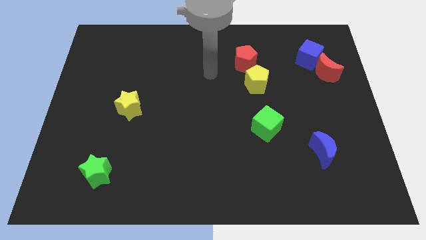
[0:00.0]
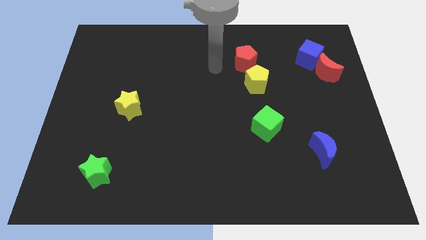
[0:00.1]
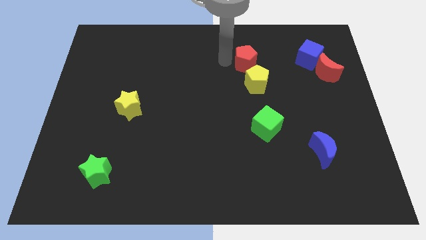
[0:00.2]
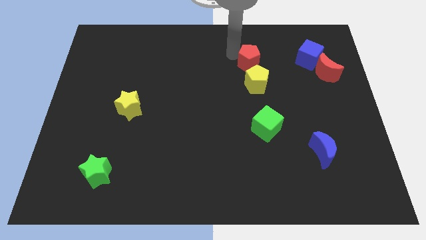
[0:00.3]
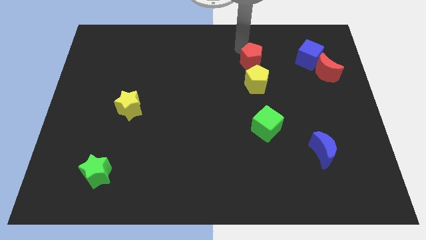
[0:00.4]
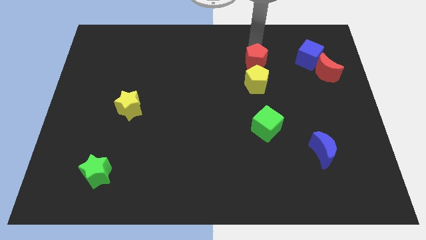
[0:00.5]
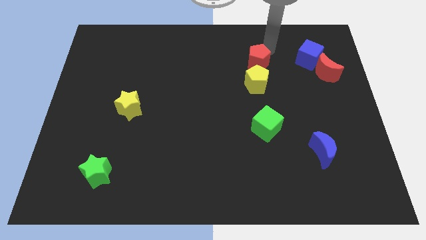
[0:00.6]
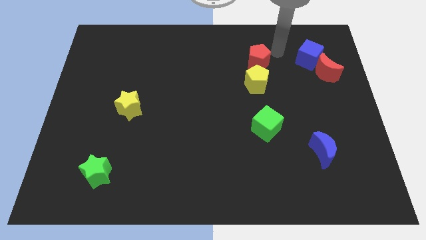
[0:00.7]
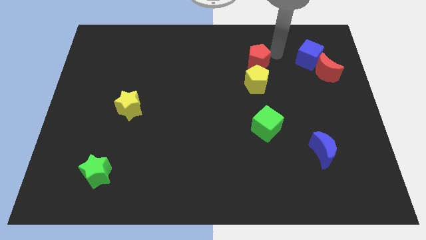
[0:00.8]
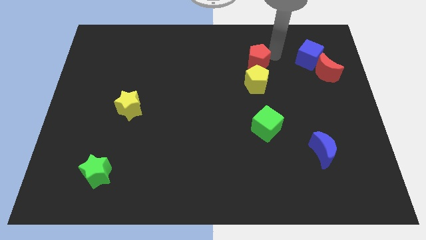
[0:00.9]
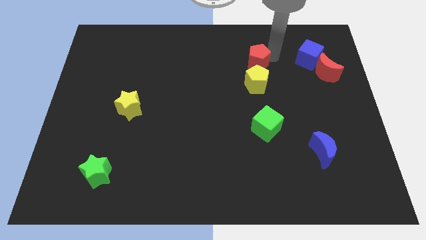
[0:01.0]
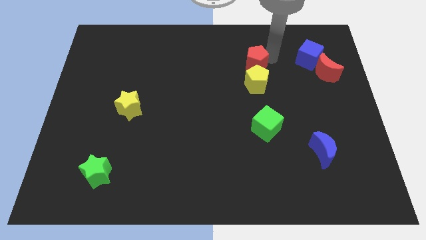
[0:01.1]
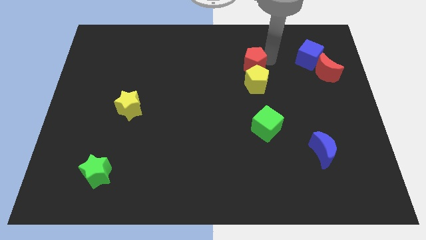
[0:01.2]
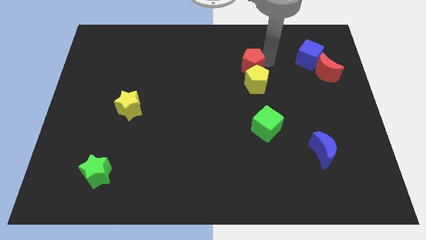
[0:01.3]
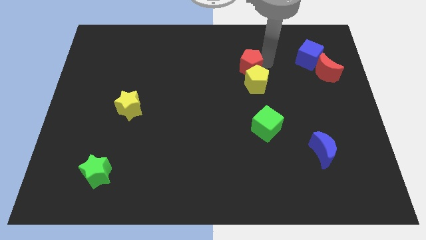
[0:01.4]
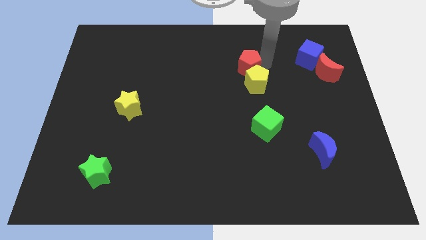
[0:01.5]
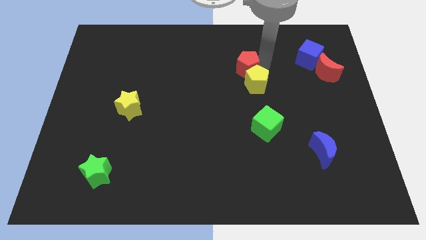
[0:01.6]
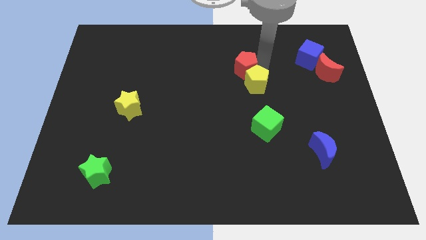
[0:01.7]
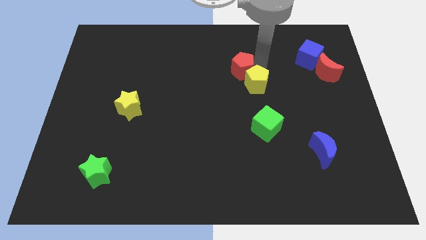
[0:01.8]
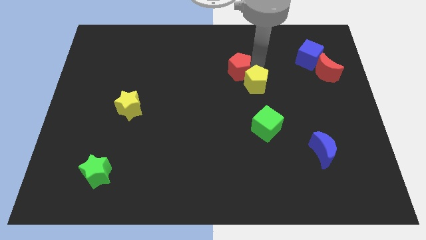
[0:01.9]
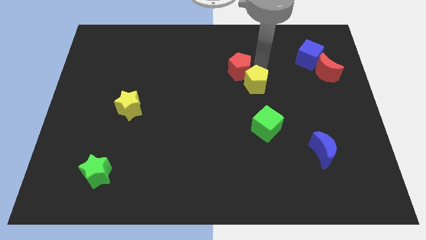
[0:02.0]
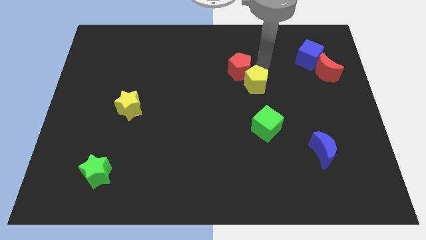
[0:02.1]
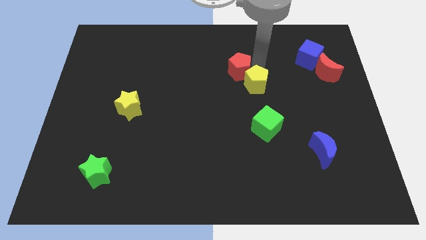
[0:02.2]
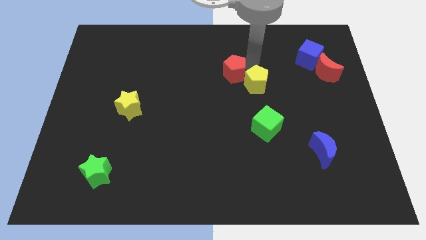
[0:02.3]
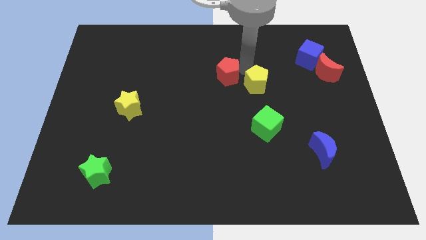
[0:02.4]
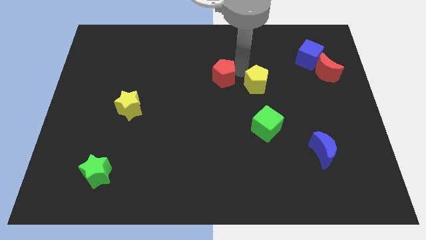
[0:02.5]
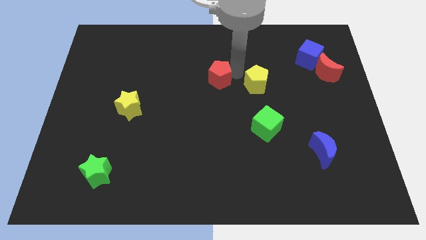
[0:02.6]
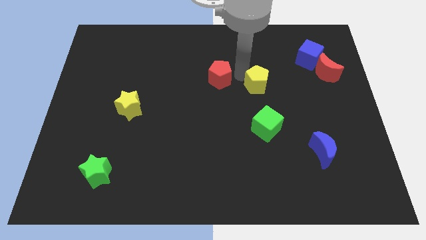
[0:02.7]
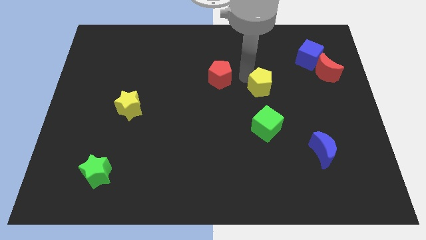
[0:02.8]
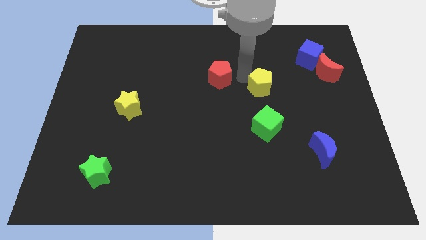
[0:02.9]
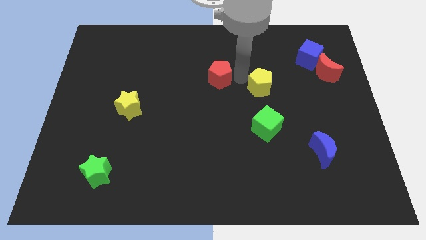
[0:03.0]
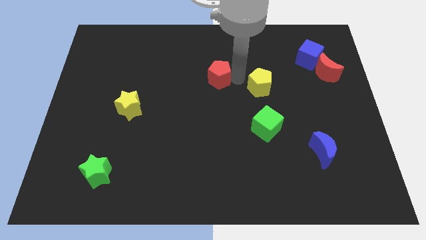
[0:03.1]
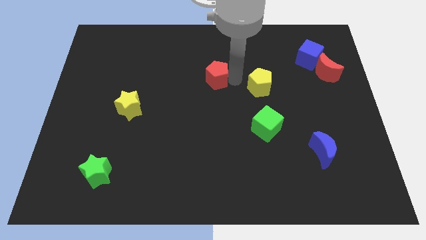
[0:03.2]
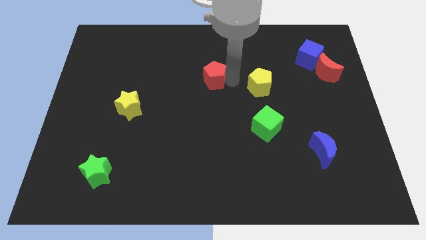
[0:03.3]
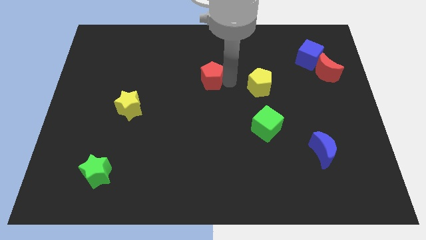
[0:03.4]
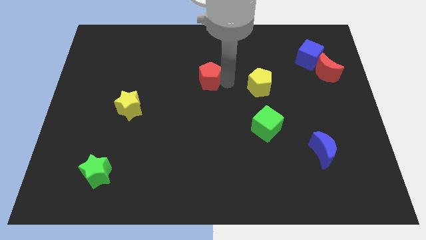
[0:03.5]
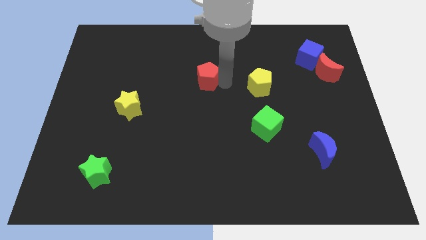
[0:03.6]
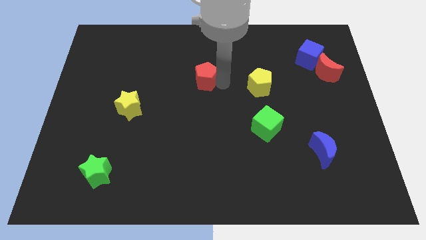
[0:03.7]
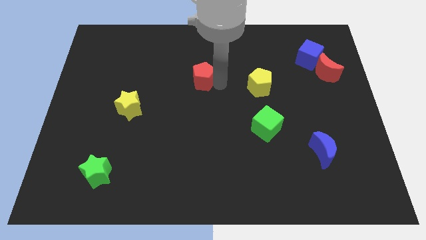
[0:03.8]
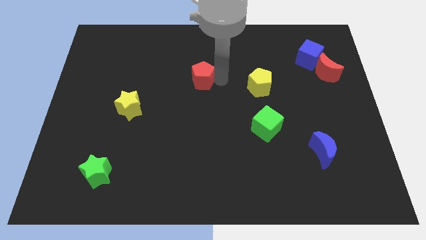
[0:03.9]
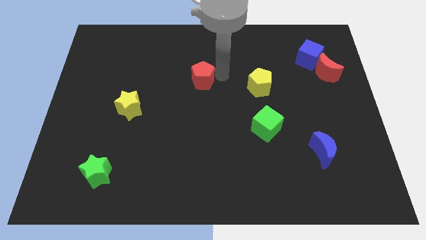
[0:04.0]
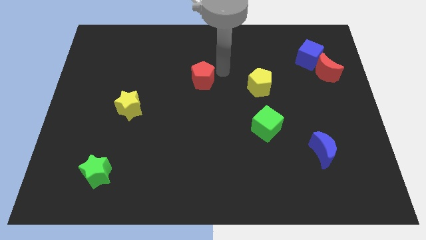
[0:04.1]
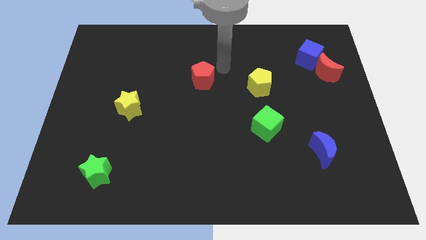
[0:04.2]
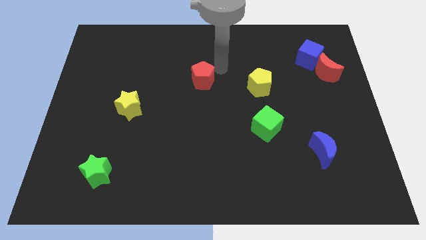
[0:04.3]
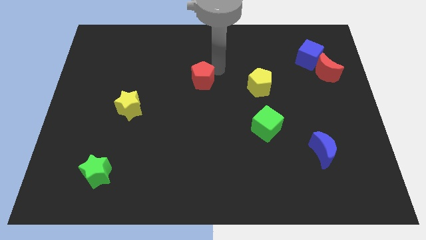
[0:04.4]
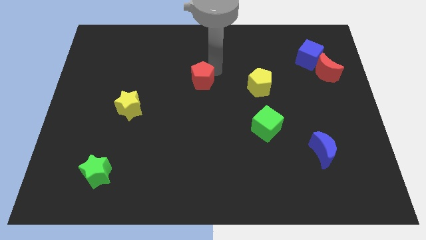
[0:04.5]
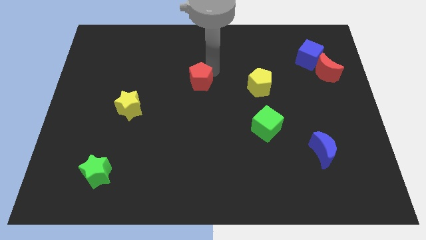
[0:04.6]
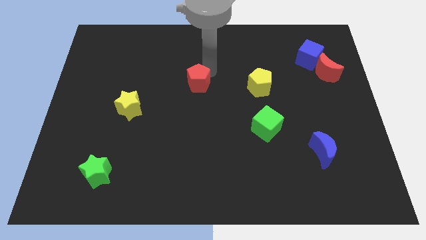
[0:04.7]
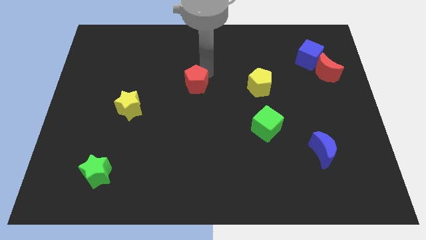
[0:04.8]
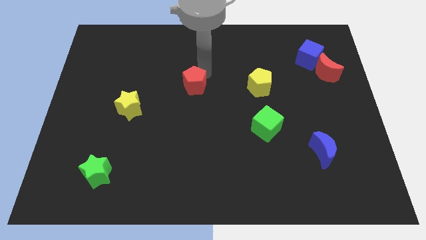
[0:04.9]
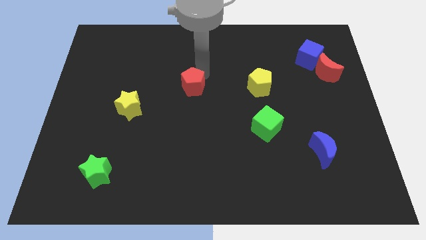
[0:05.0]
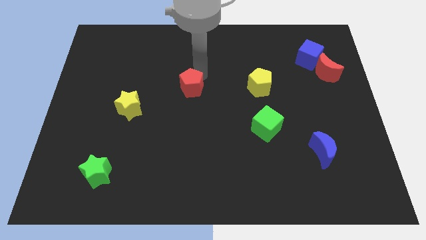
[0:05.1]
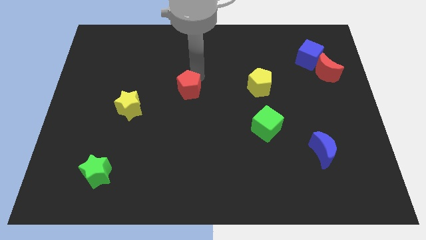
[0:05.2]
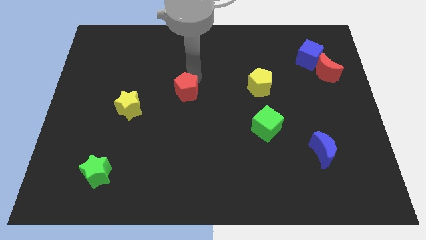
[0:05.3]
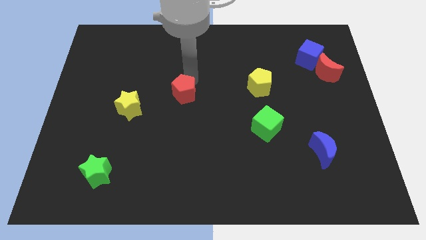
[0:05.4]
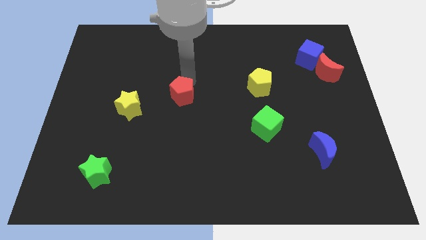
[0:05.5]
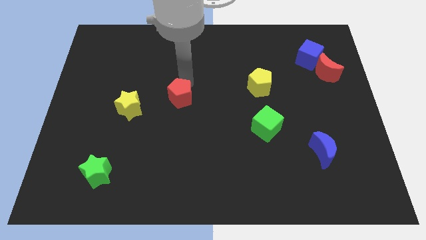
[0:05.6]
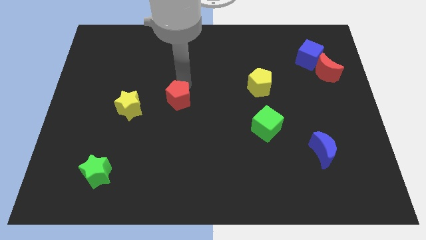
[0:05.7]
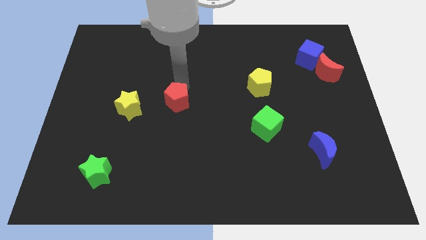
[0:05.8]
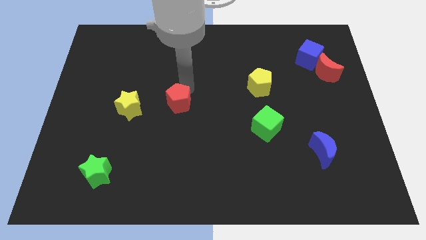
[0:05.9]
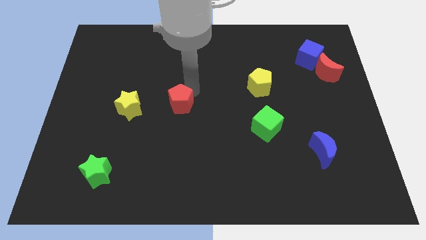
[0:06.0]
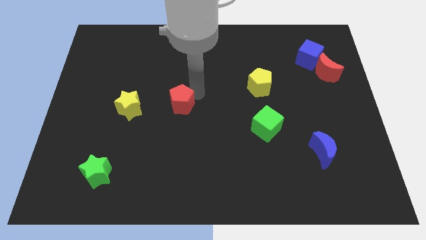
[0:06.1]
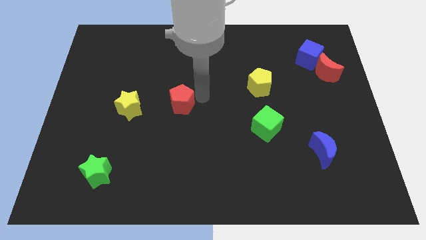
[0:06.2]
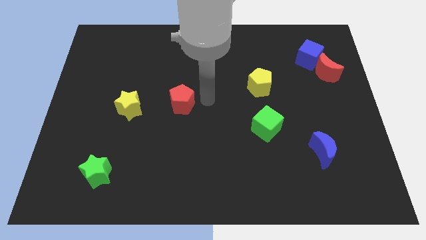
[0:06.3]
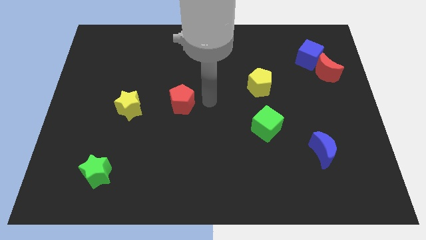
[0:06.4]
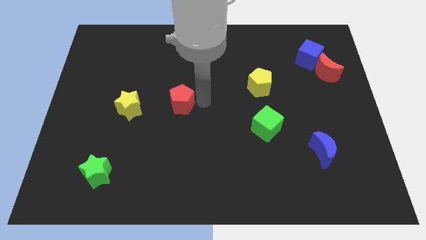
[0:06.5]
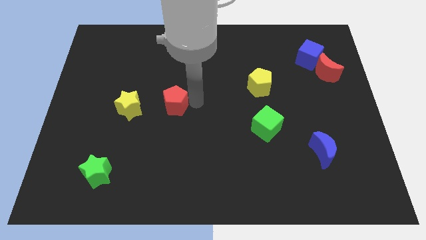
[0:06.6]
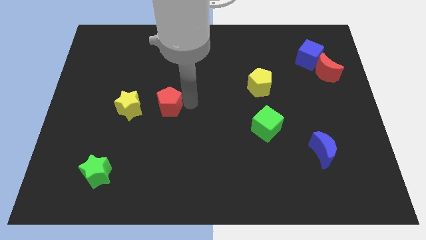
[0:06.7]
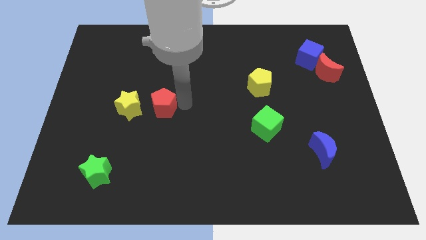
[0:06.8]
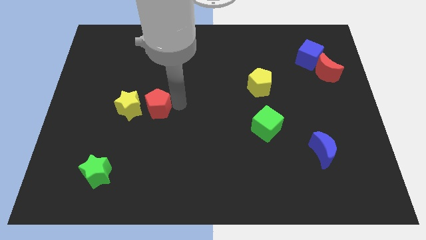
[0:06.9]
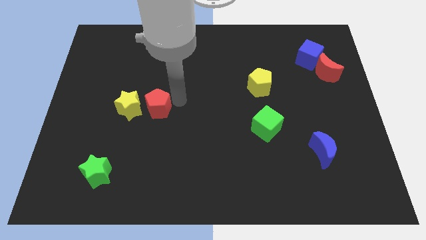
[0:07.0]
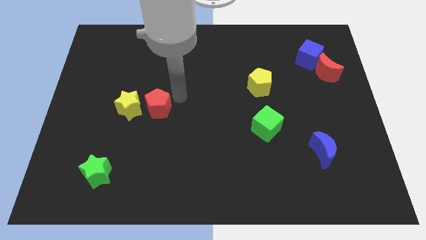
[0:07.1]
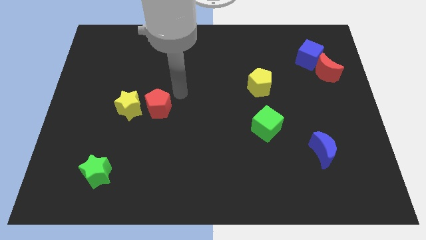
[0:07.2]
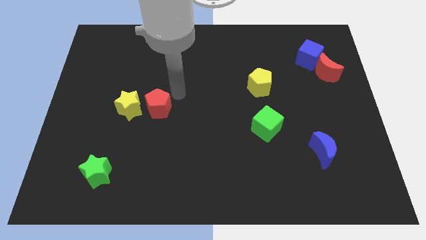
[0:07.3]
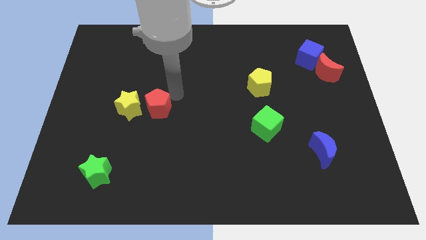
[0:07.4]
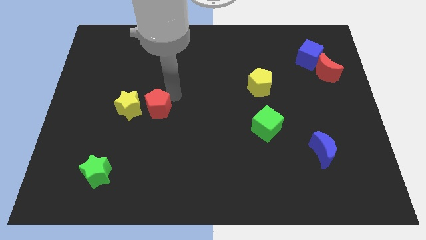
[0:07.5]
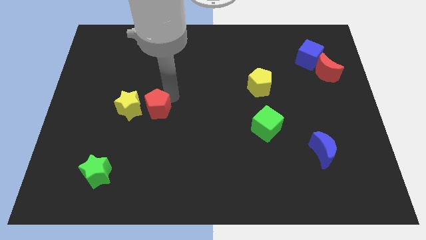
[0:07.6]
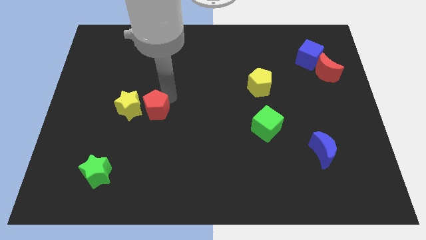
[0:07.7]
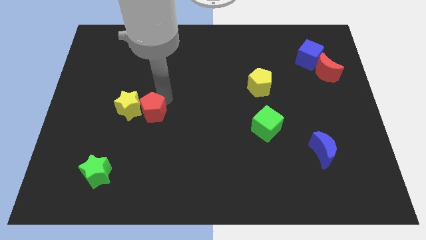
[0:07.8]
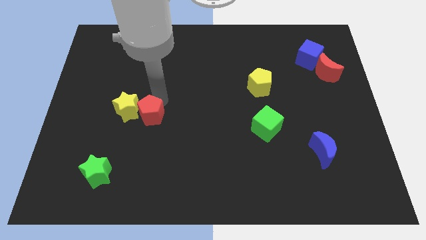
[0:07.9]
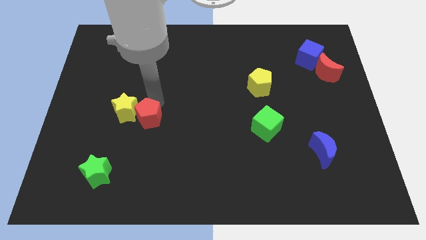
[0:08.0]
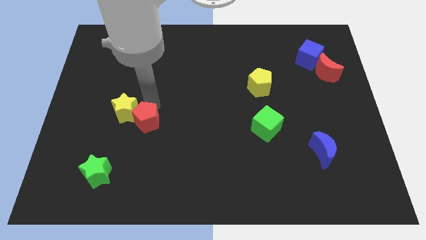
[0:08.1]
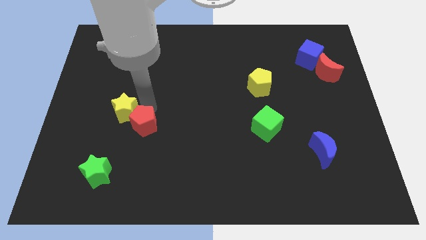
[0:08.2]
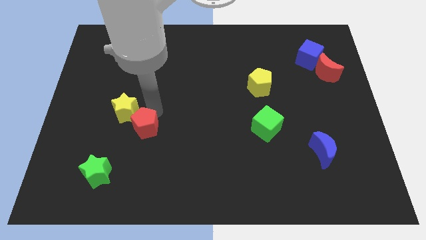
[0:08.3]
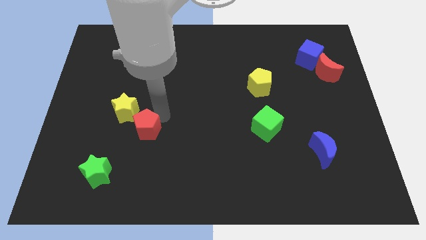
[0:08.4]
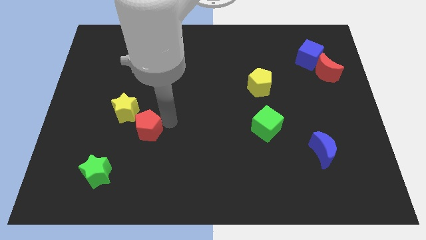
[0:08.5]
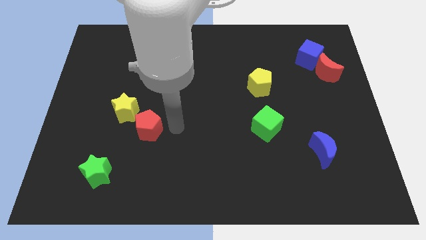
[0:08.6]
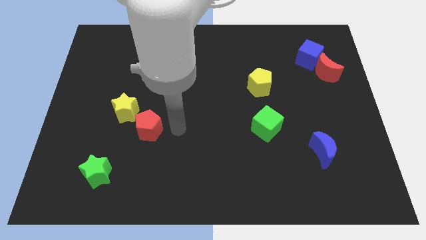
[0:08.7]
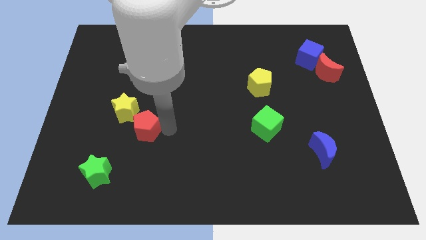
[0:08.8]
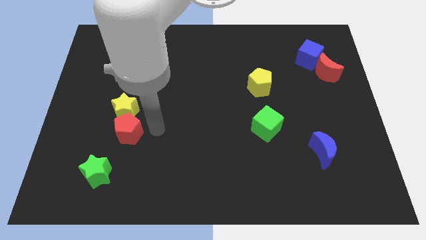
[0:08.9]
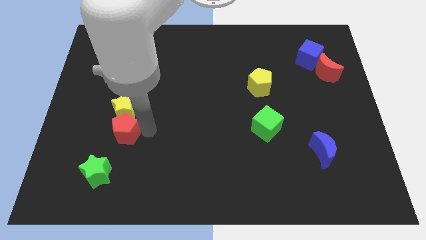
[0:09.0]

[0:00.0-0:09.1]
push the red pentagon to the bottom left of the yellow star
